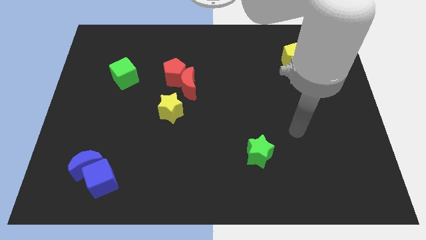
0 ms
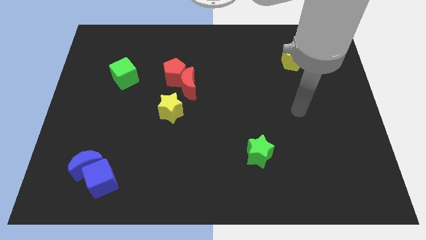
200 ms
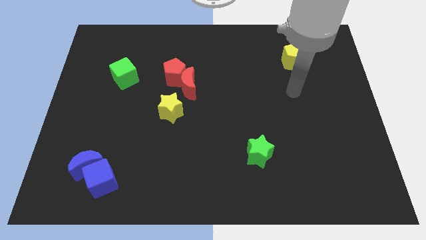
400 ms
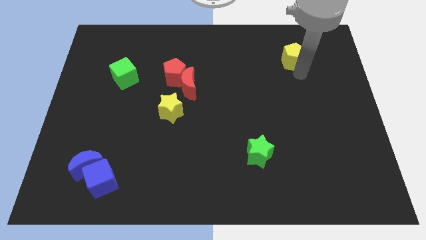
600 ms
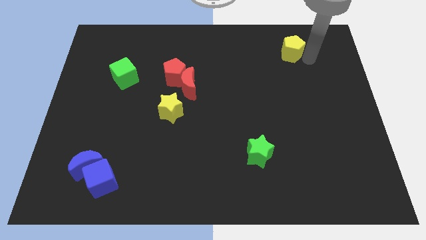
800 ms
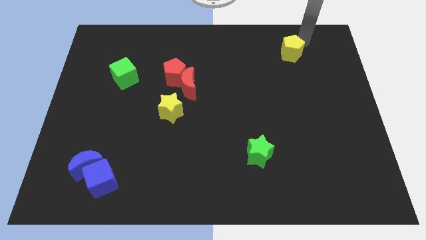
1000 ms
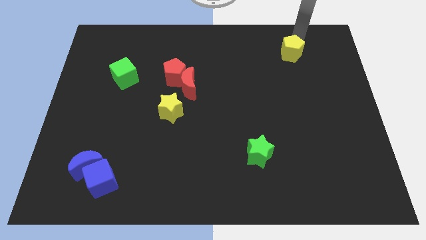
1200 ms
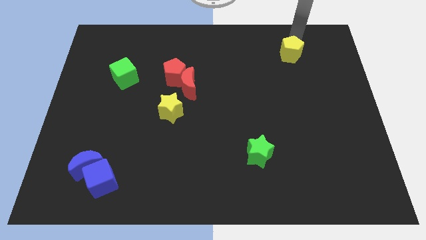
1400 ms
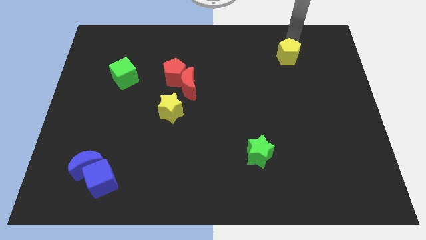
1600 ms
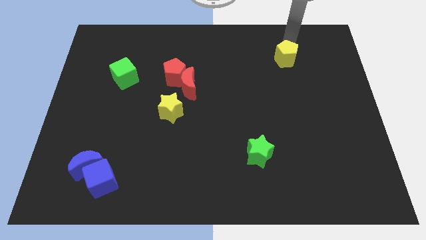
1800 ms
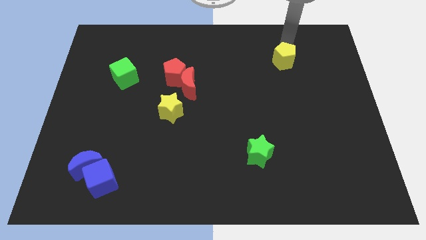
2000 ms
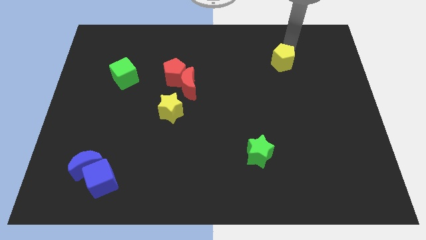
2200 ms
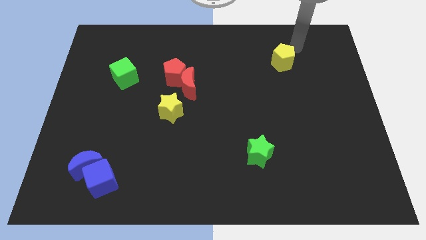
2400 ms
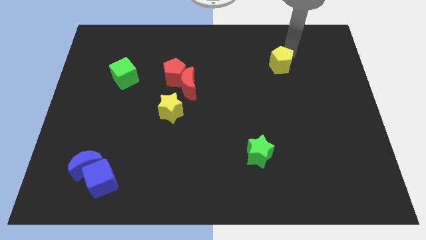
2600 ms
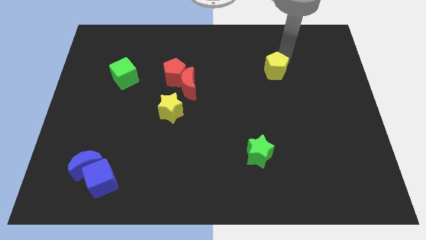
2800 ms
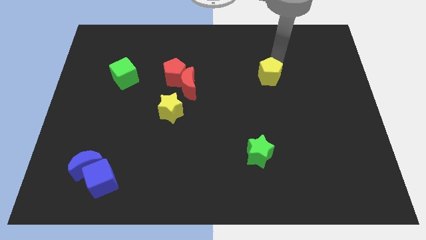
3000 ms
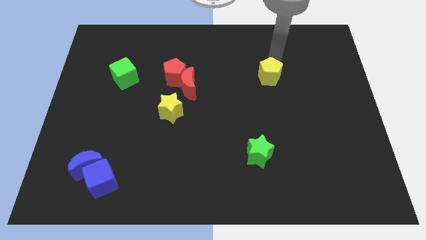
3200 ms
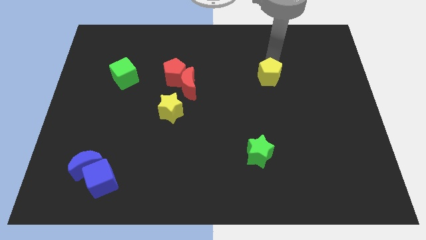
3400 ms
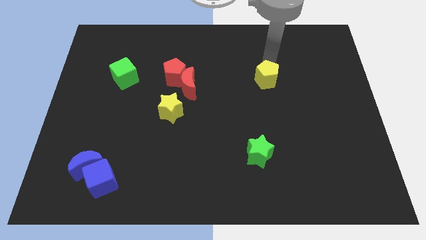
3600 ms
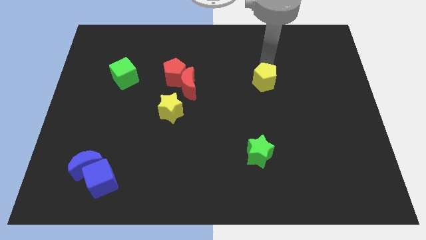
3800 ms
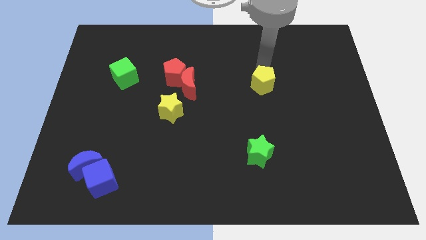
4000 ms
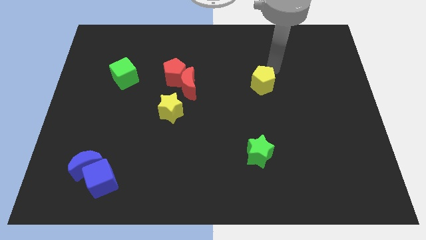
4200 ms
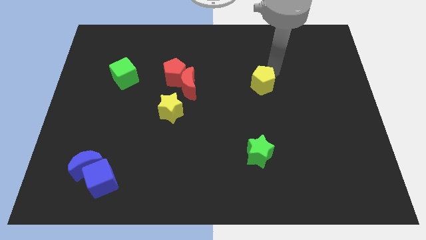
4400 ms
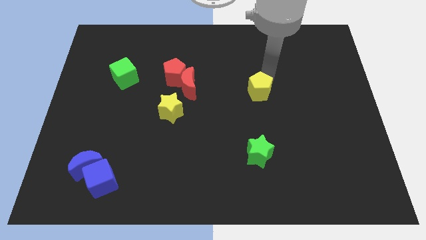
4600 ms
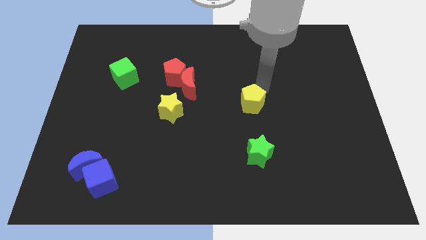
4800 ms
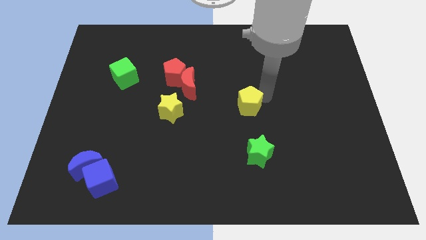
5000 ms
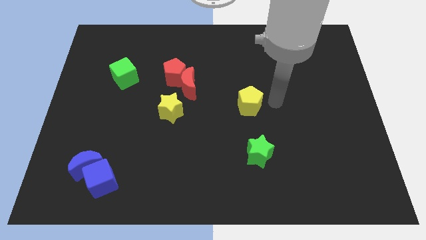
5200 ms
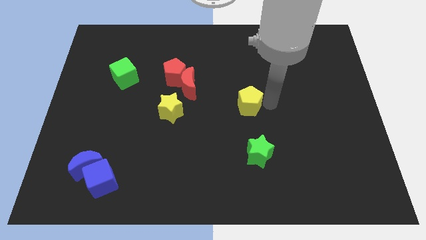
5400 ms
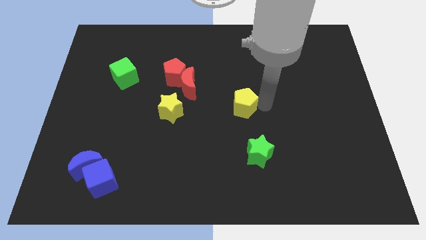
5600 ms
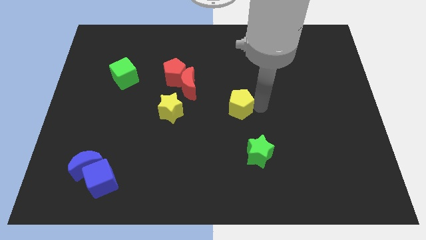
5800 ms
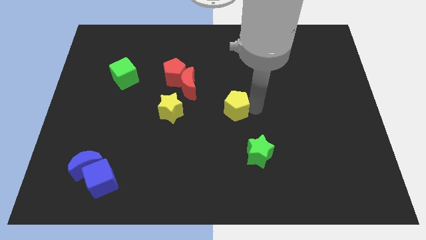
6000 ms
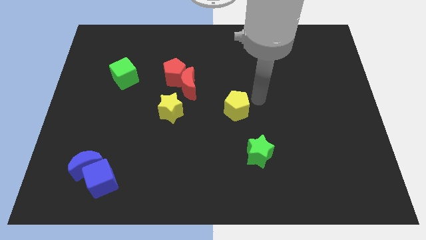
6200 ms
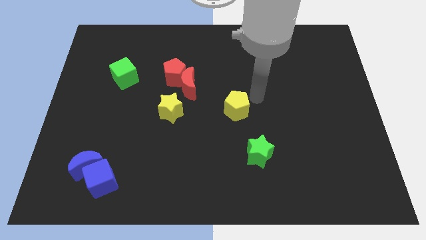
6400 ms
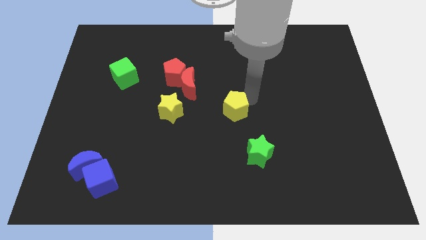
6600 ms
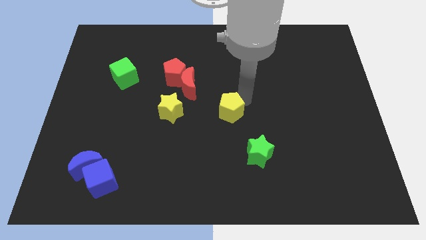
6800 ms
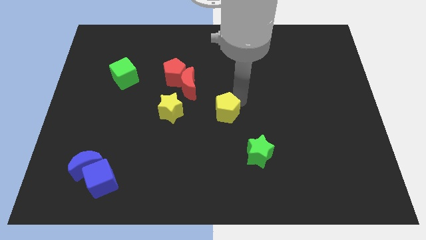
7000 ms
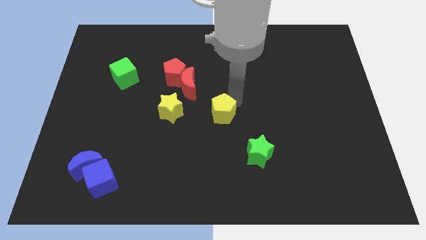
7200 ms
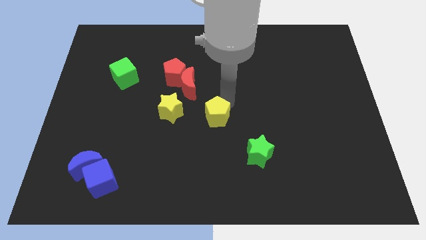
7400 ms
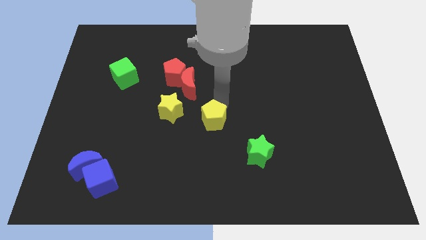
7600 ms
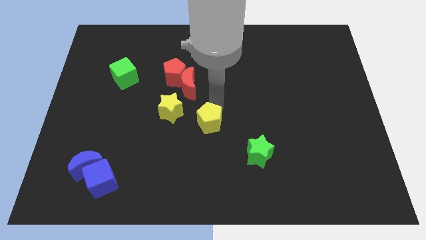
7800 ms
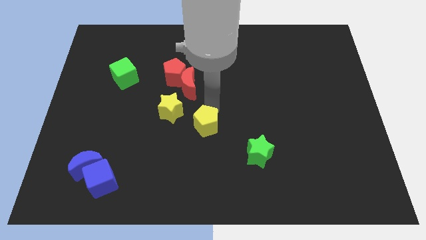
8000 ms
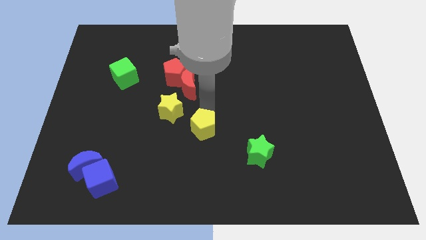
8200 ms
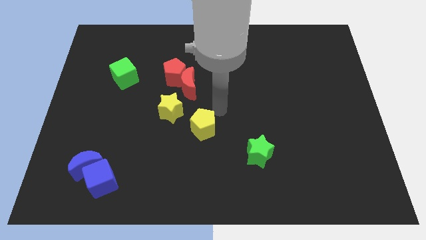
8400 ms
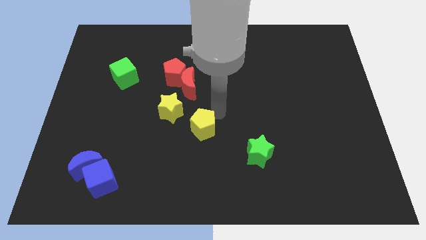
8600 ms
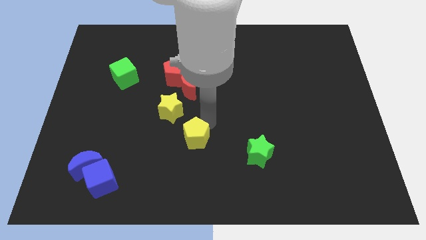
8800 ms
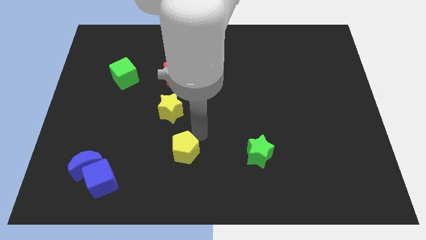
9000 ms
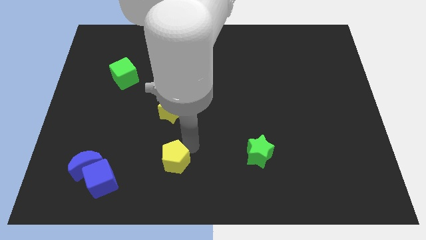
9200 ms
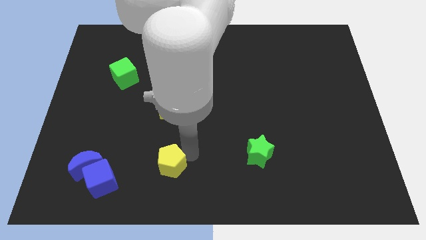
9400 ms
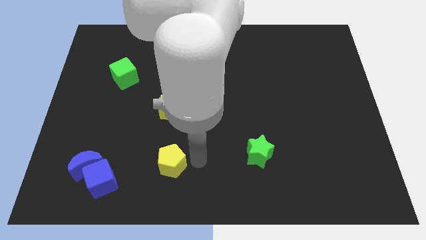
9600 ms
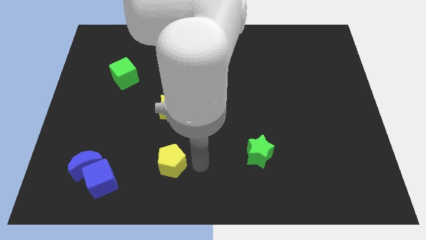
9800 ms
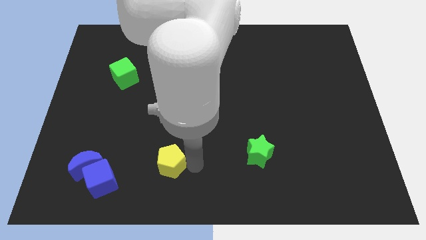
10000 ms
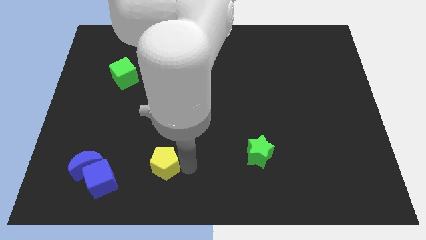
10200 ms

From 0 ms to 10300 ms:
slide the yellow pentagon just right of the blue moon

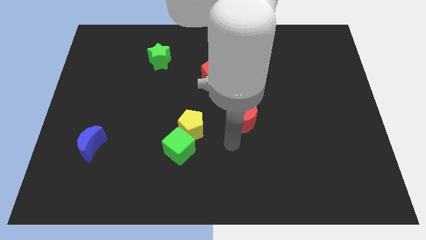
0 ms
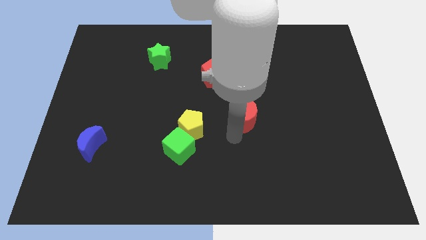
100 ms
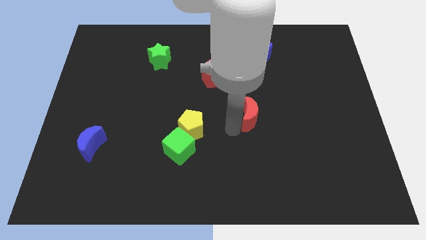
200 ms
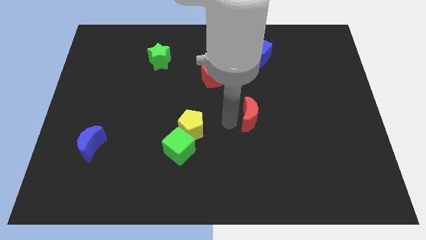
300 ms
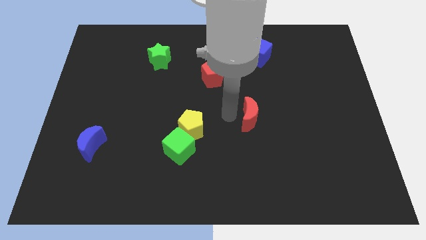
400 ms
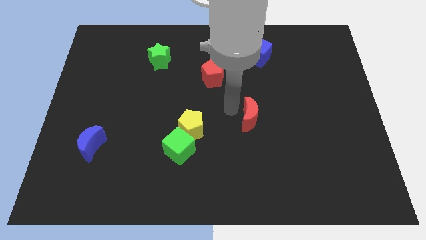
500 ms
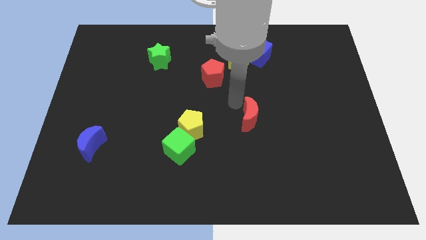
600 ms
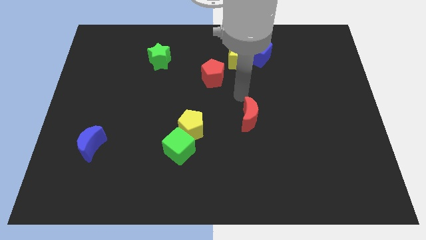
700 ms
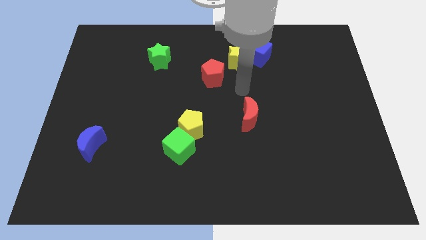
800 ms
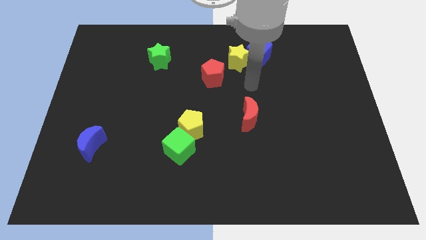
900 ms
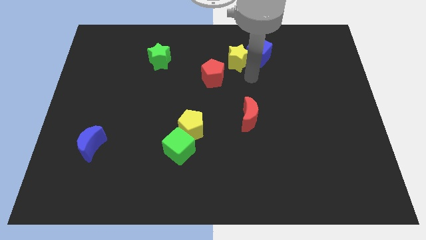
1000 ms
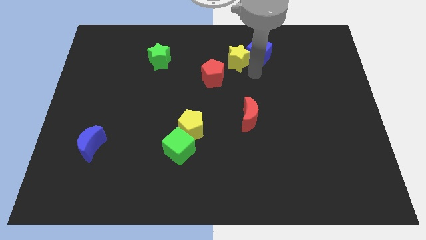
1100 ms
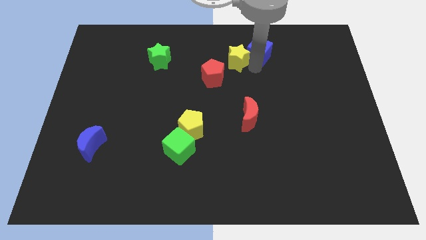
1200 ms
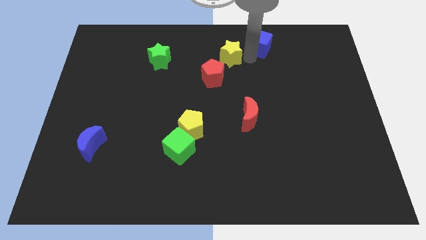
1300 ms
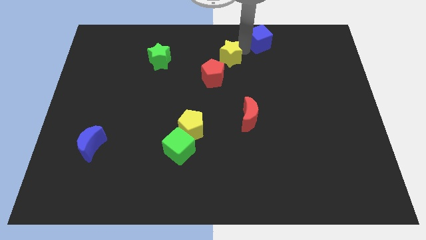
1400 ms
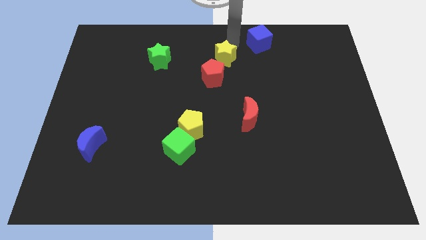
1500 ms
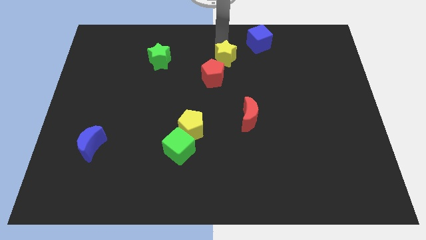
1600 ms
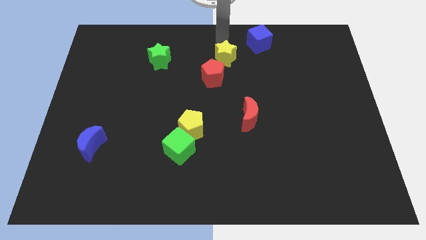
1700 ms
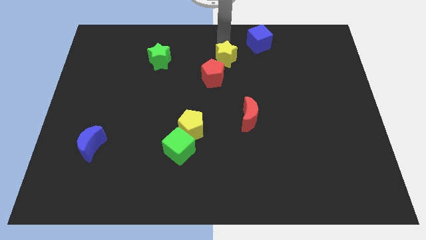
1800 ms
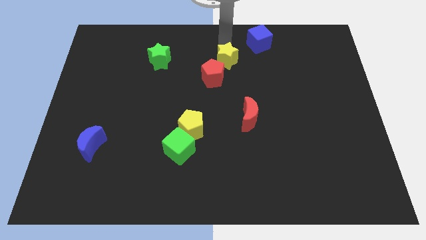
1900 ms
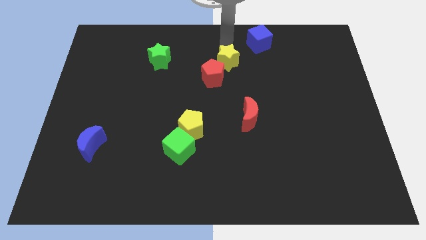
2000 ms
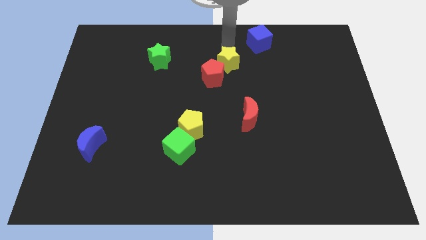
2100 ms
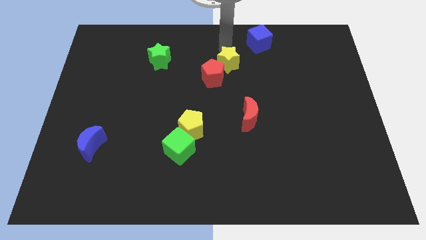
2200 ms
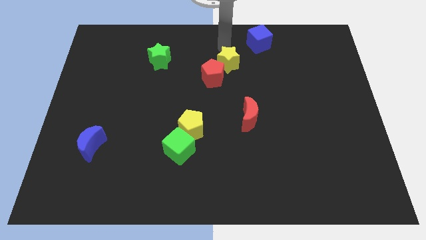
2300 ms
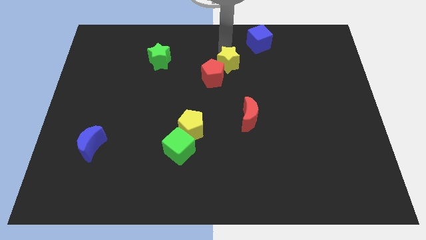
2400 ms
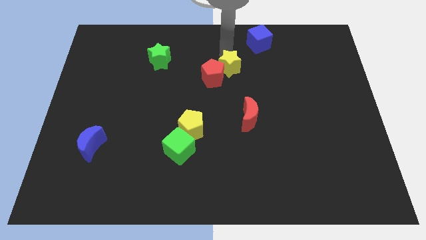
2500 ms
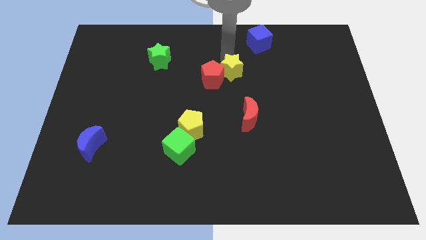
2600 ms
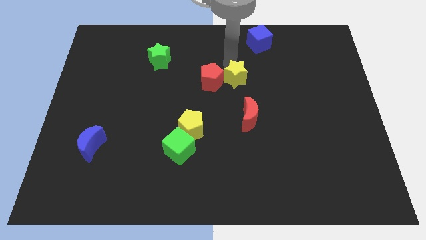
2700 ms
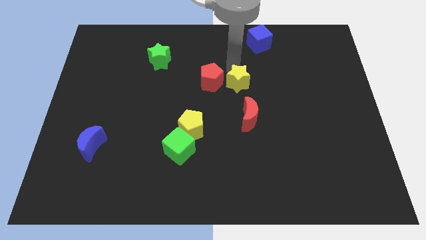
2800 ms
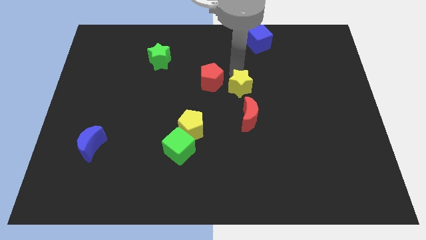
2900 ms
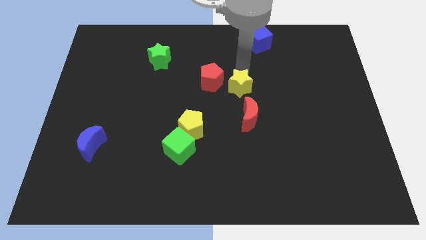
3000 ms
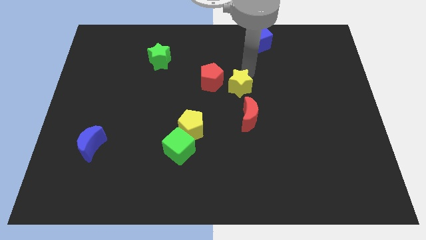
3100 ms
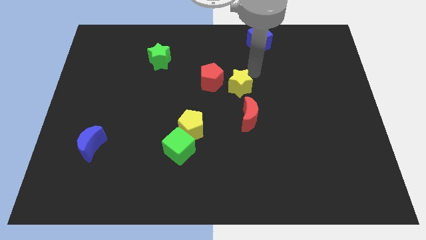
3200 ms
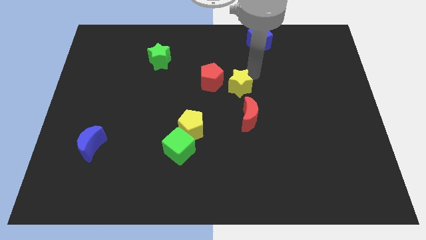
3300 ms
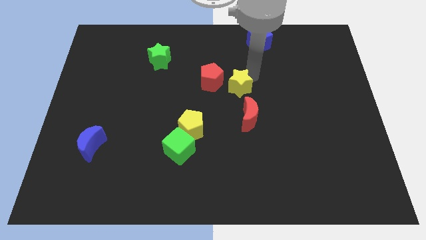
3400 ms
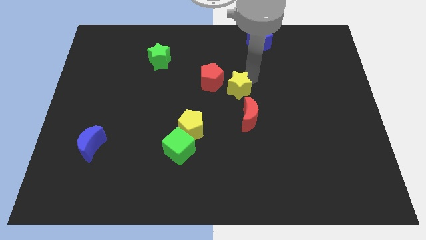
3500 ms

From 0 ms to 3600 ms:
move the yellow star to the top left of the red moon
